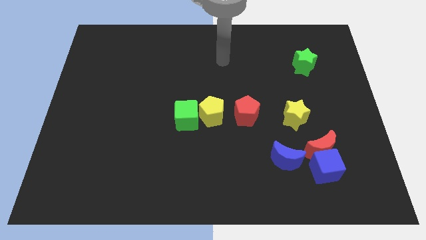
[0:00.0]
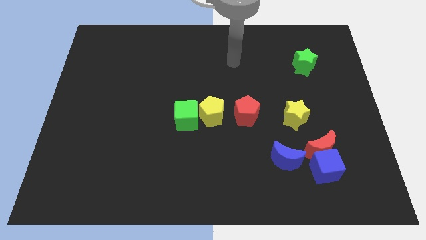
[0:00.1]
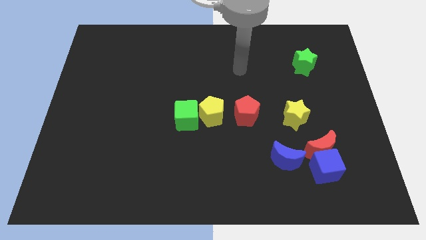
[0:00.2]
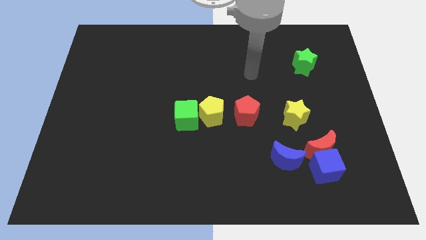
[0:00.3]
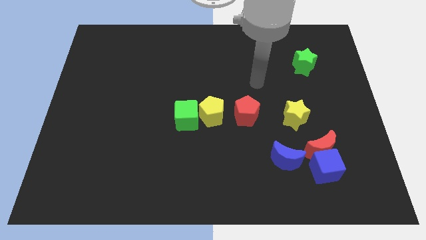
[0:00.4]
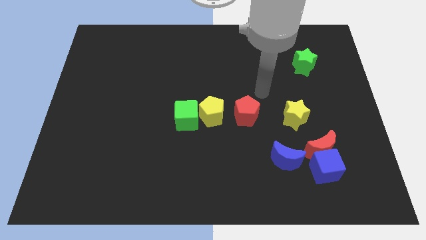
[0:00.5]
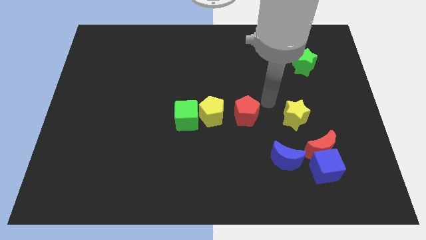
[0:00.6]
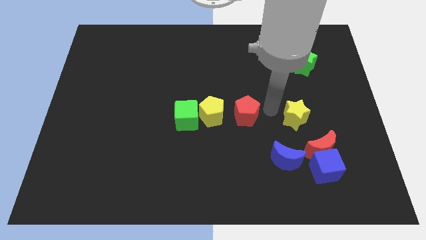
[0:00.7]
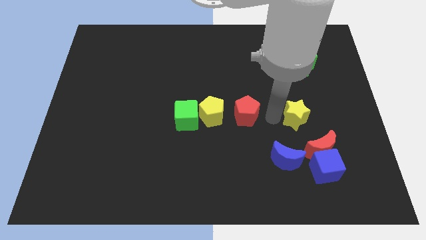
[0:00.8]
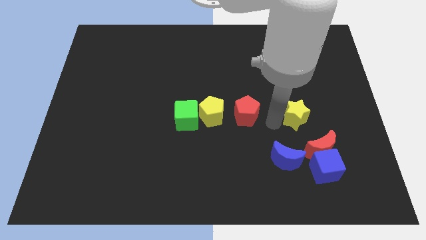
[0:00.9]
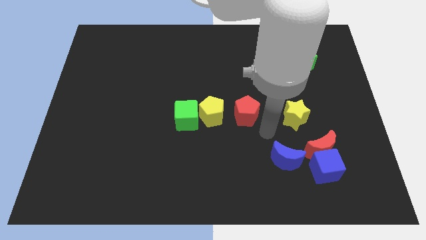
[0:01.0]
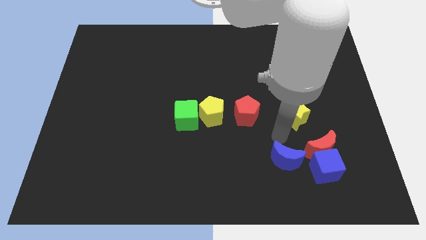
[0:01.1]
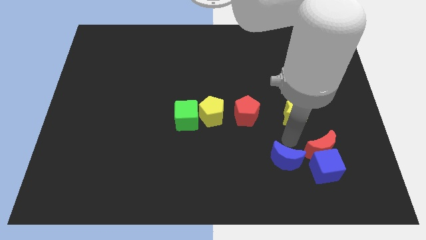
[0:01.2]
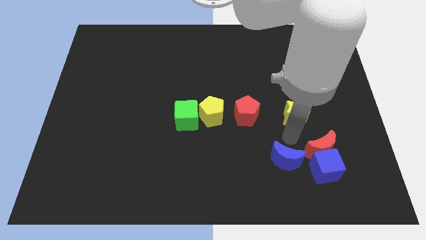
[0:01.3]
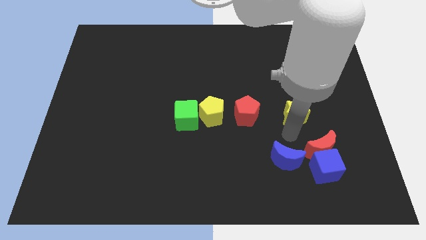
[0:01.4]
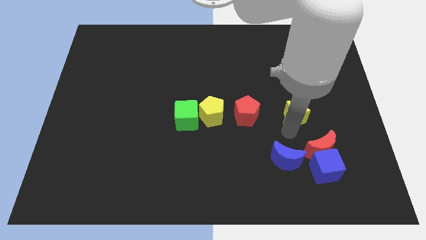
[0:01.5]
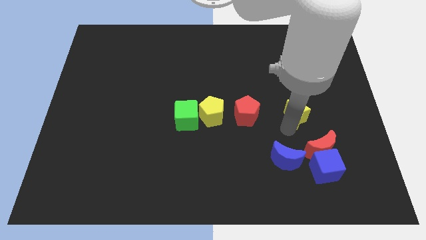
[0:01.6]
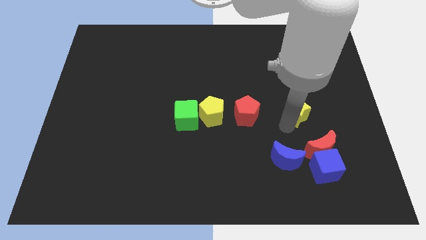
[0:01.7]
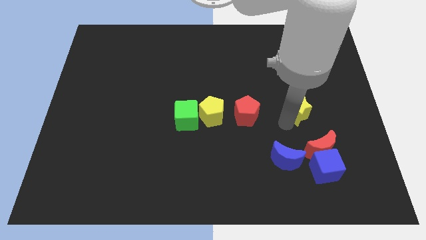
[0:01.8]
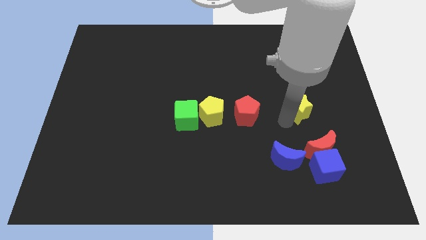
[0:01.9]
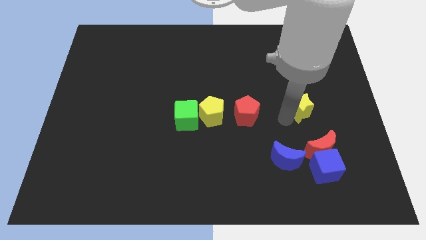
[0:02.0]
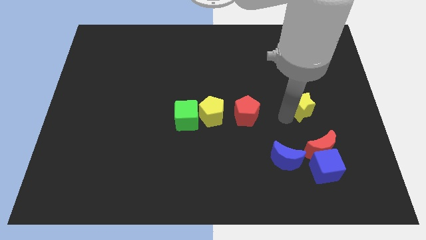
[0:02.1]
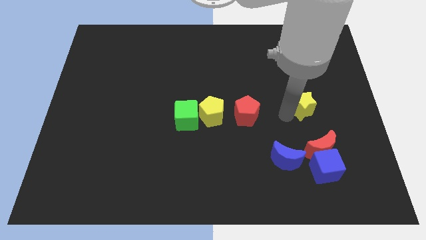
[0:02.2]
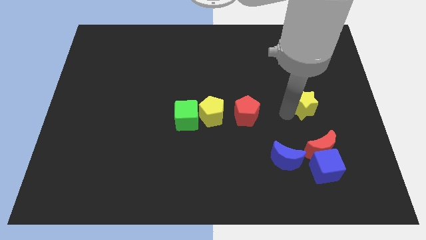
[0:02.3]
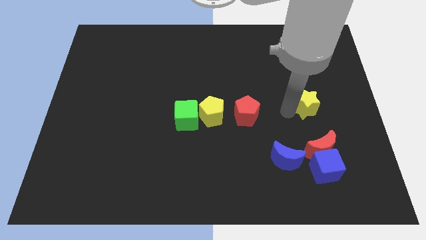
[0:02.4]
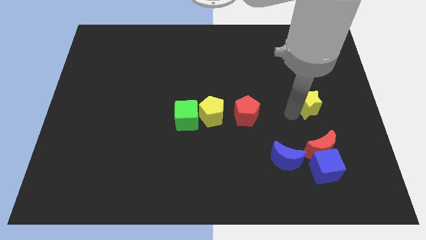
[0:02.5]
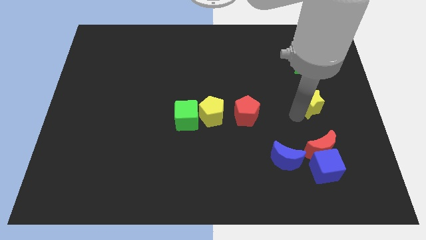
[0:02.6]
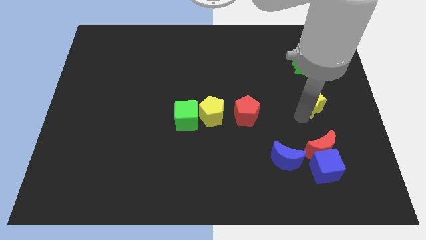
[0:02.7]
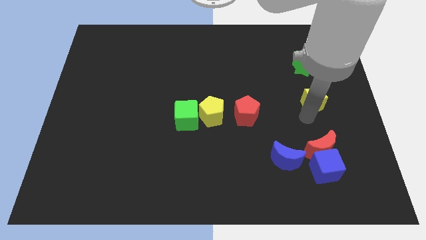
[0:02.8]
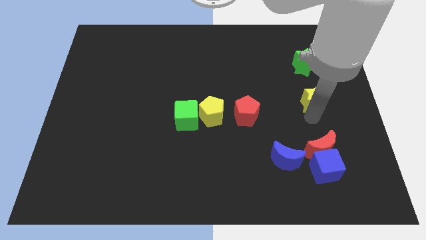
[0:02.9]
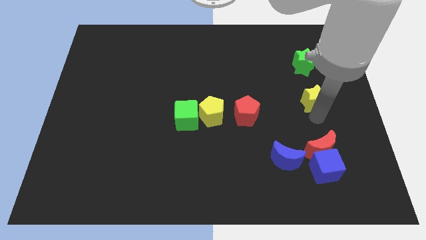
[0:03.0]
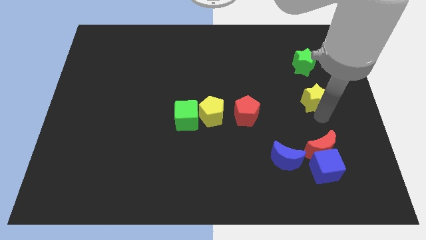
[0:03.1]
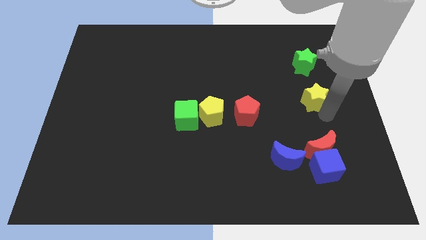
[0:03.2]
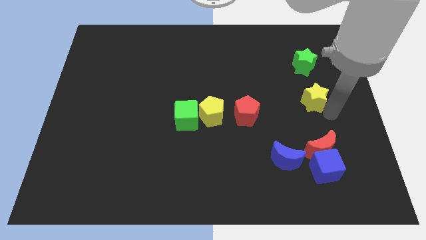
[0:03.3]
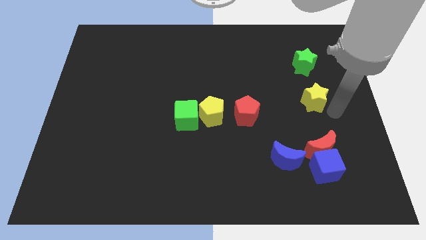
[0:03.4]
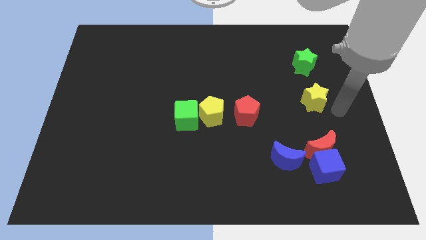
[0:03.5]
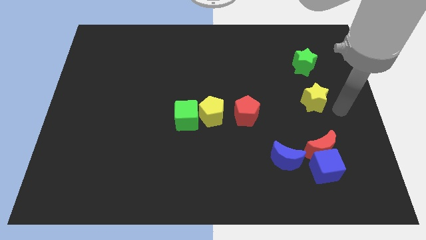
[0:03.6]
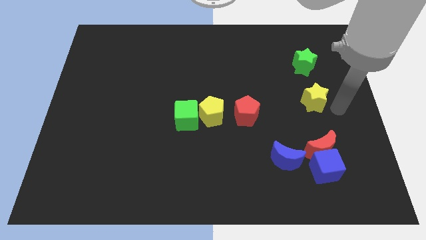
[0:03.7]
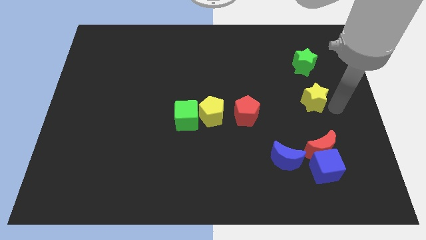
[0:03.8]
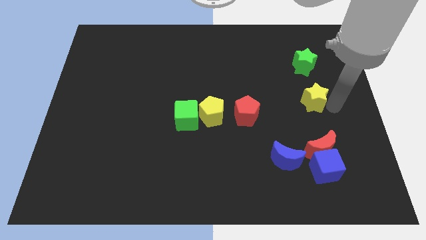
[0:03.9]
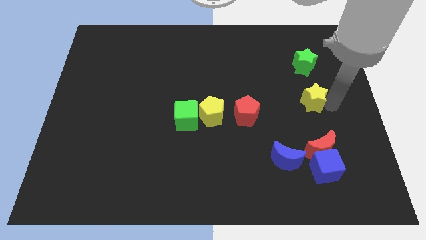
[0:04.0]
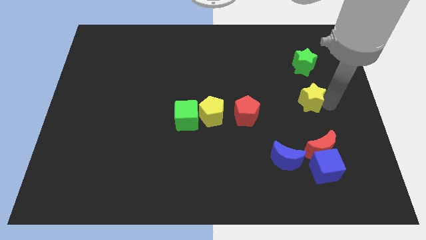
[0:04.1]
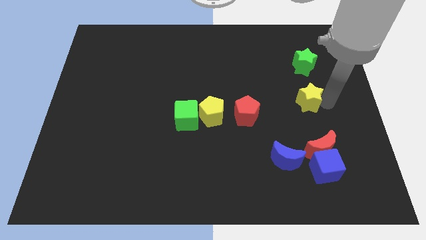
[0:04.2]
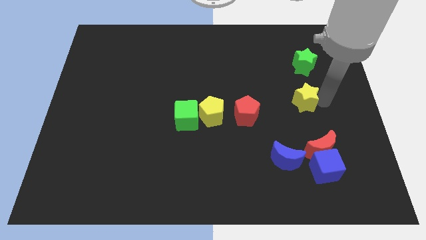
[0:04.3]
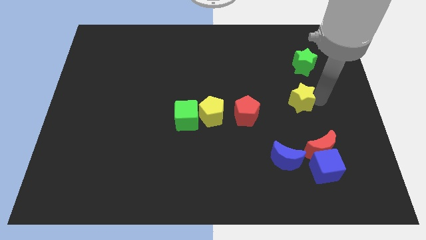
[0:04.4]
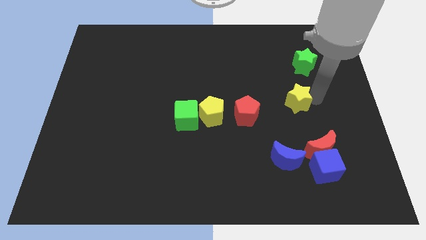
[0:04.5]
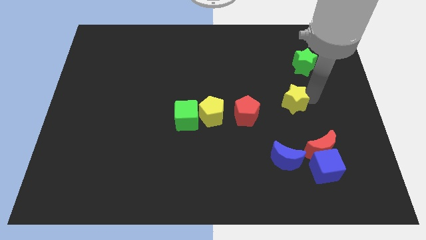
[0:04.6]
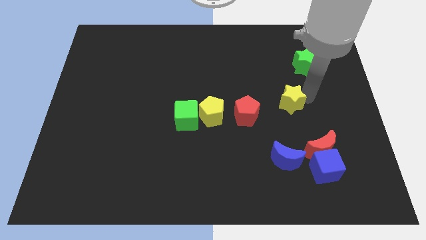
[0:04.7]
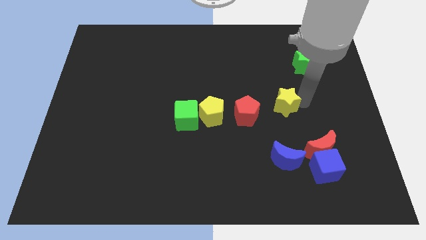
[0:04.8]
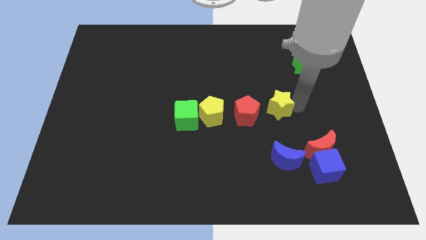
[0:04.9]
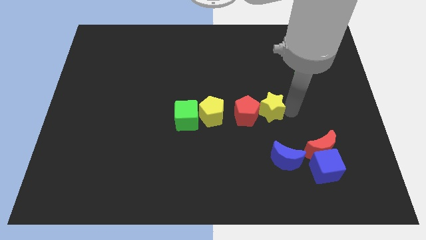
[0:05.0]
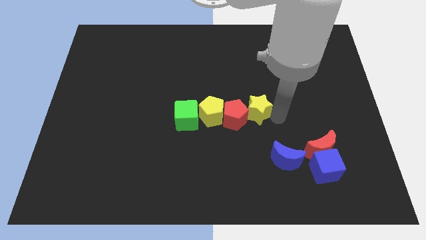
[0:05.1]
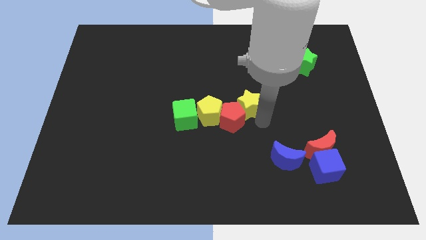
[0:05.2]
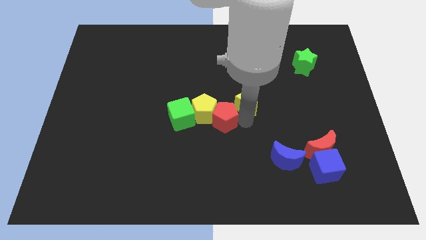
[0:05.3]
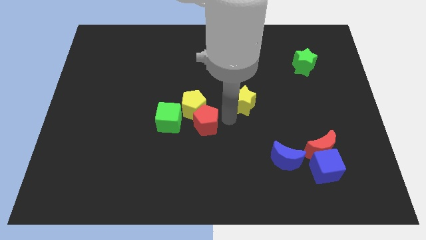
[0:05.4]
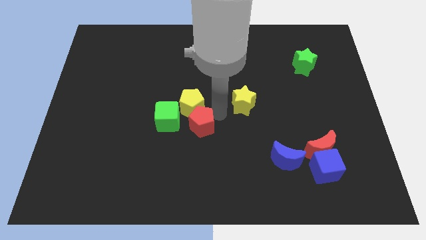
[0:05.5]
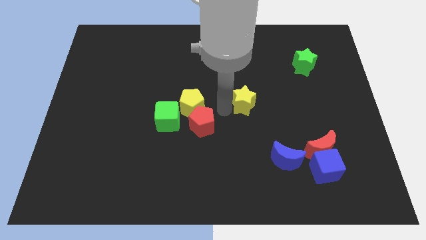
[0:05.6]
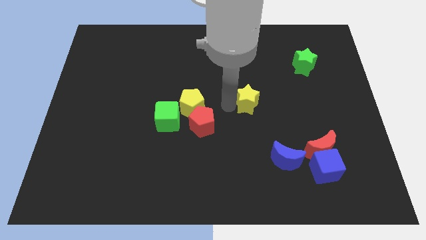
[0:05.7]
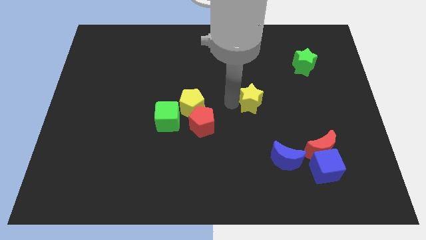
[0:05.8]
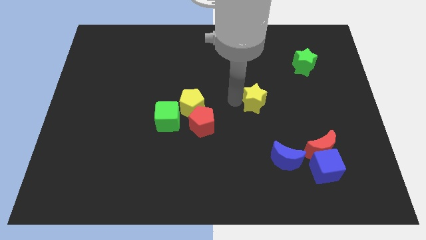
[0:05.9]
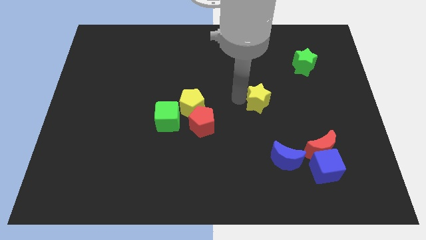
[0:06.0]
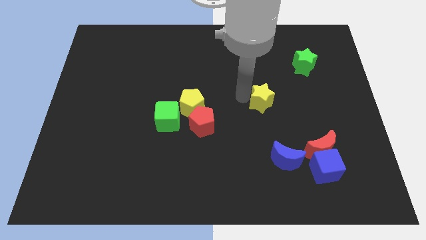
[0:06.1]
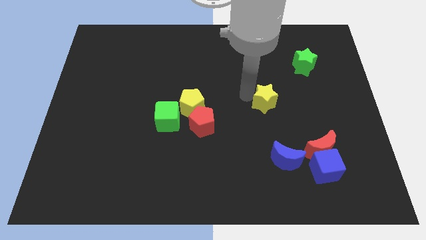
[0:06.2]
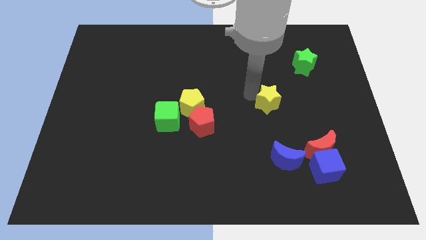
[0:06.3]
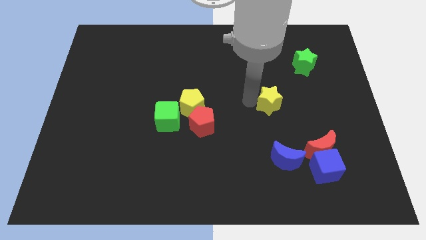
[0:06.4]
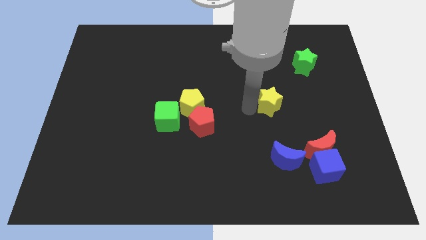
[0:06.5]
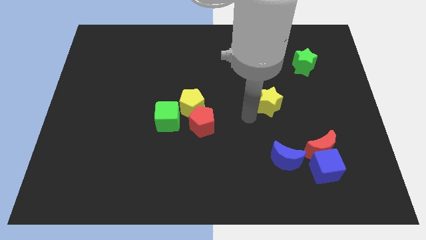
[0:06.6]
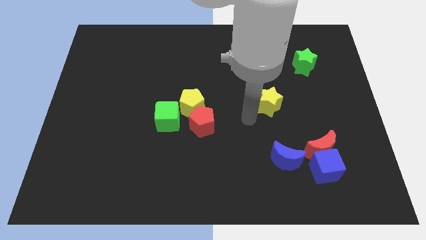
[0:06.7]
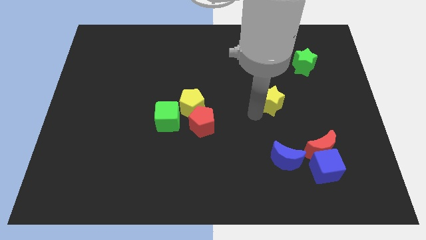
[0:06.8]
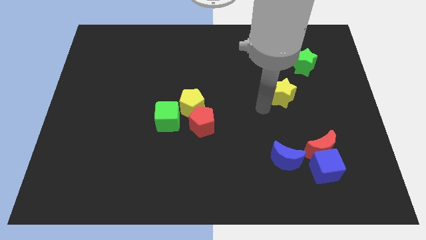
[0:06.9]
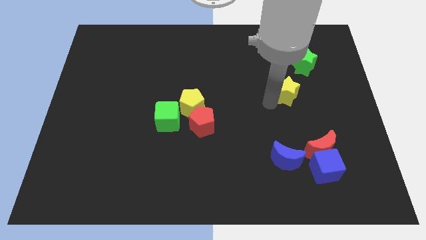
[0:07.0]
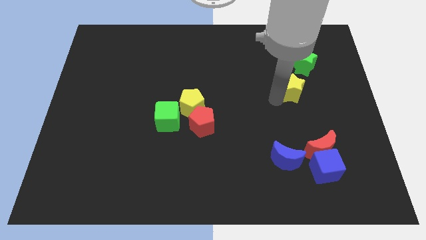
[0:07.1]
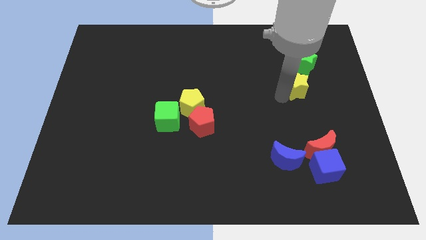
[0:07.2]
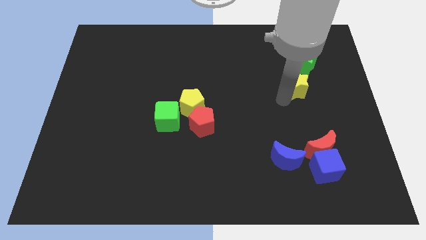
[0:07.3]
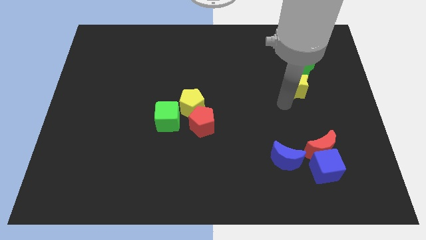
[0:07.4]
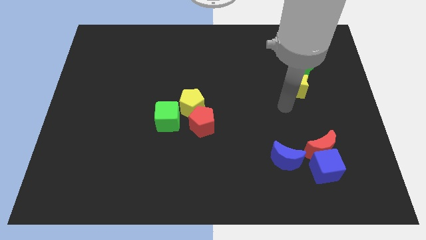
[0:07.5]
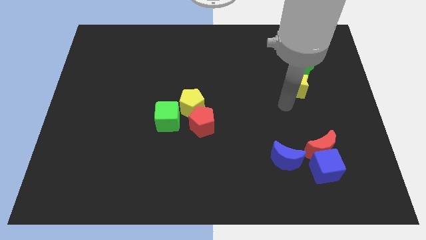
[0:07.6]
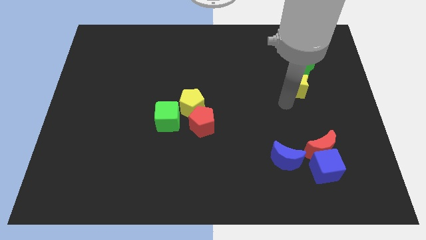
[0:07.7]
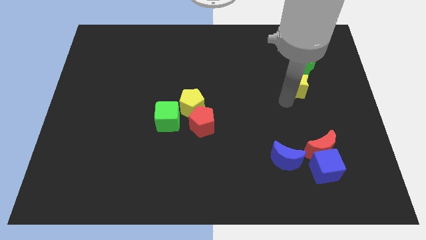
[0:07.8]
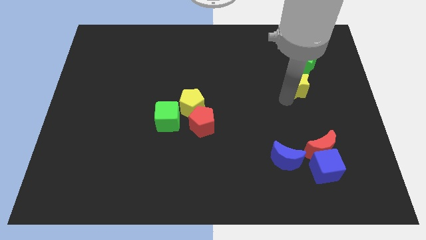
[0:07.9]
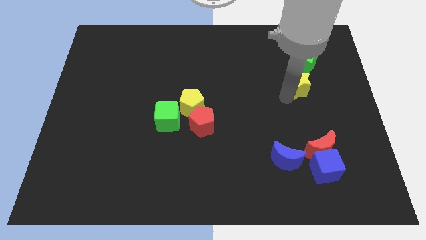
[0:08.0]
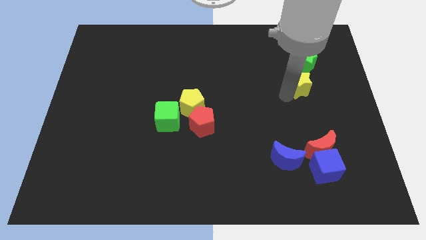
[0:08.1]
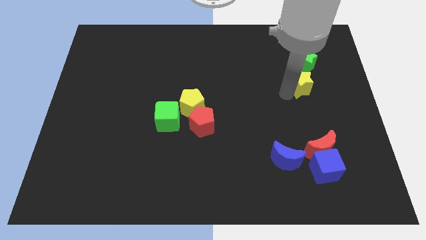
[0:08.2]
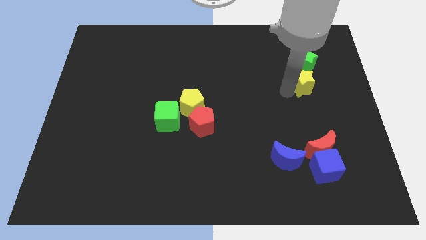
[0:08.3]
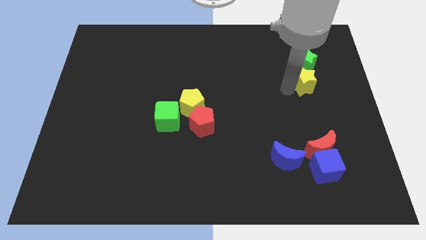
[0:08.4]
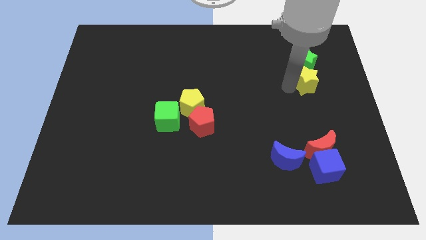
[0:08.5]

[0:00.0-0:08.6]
slide the yellow star to the green star
